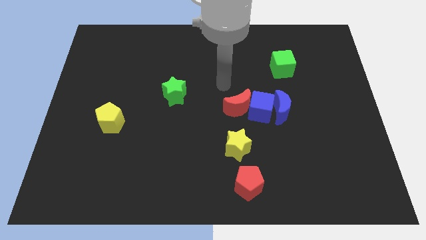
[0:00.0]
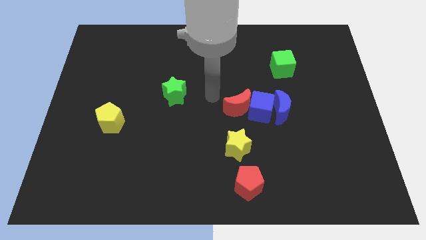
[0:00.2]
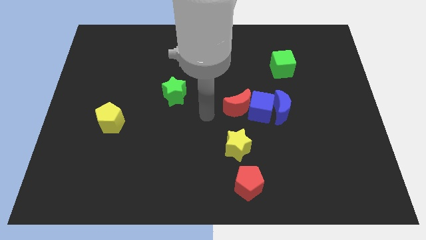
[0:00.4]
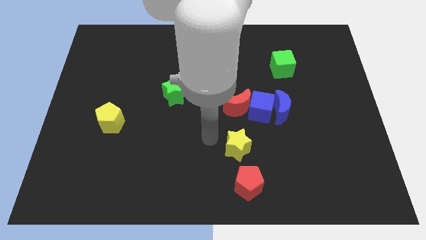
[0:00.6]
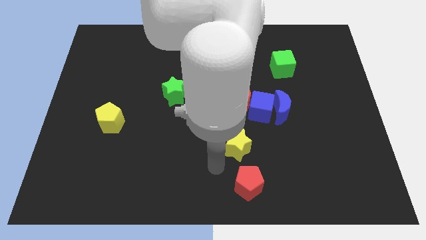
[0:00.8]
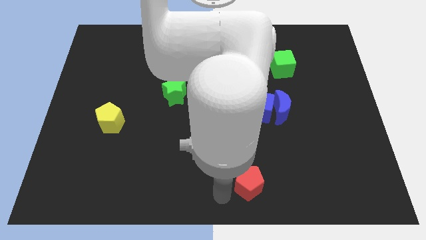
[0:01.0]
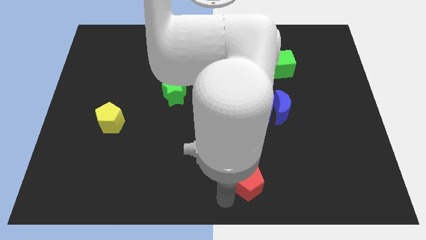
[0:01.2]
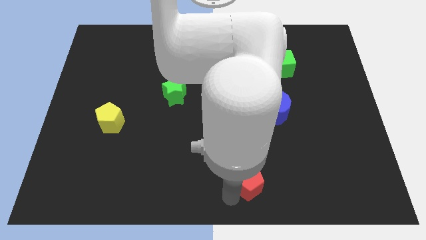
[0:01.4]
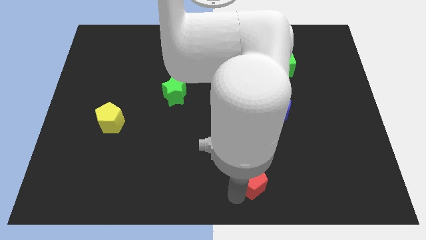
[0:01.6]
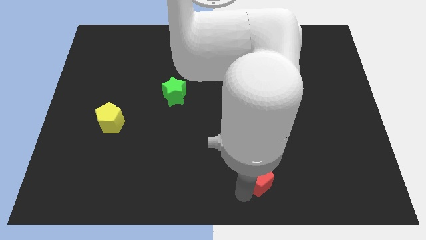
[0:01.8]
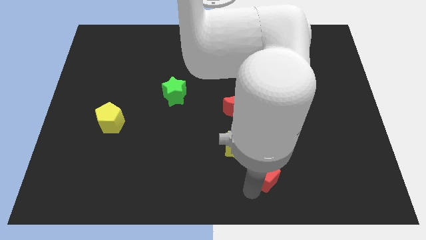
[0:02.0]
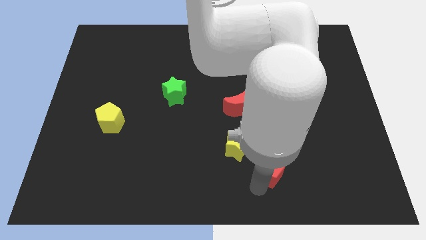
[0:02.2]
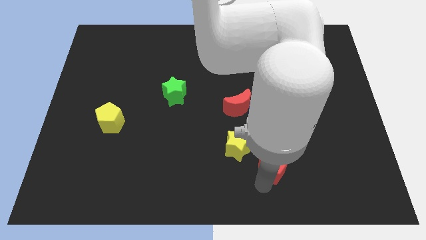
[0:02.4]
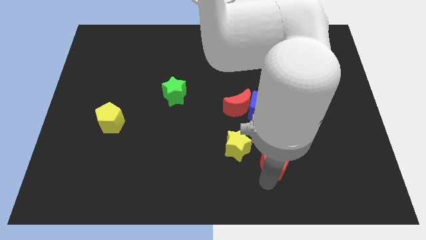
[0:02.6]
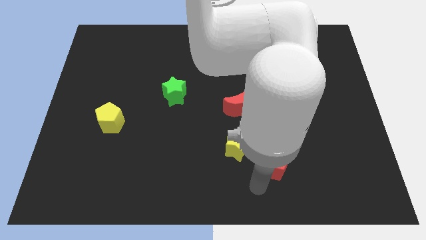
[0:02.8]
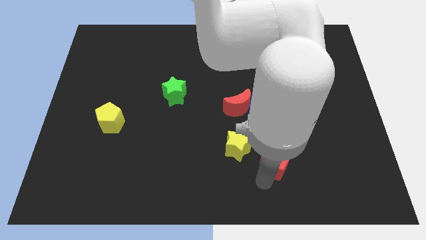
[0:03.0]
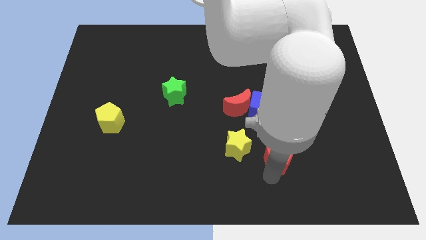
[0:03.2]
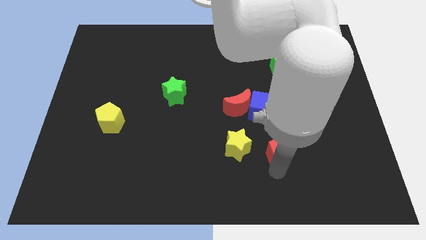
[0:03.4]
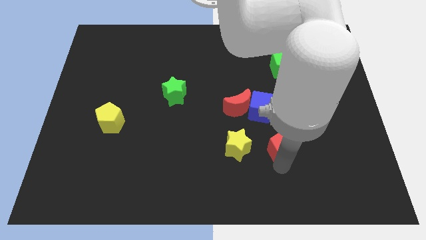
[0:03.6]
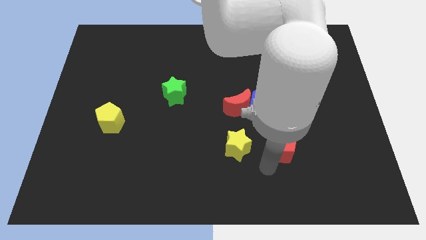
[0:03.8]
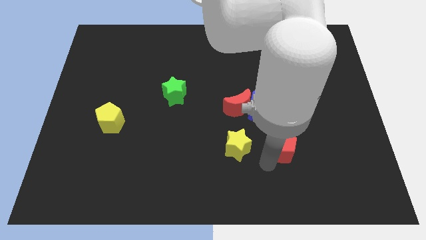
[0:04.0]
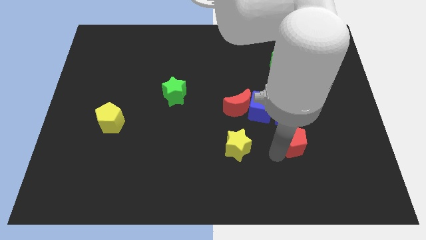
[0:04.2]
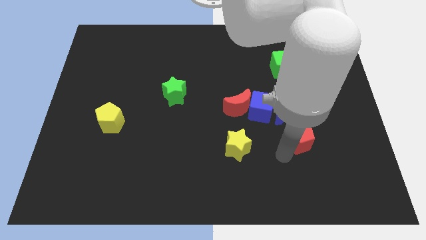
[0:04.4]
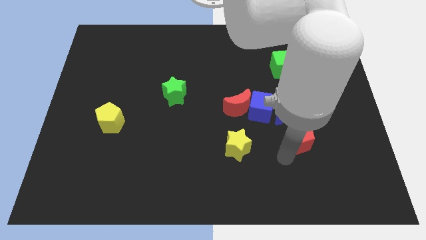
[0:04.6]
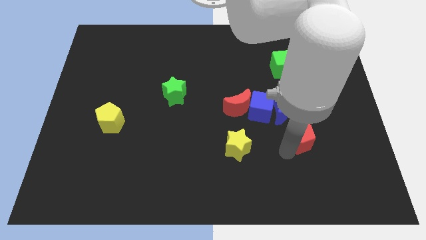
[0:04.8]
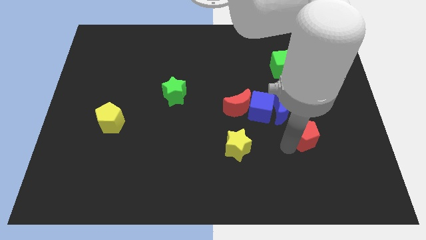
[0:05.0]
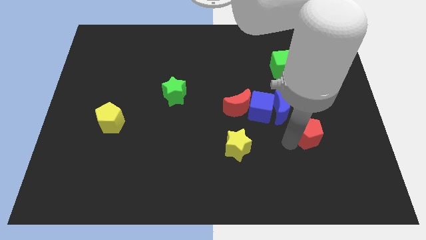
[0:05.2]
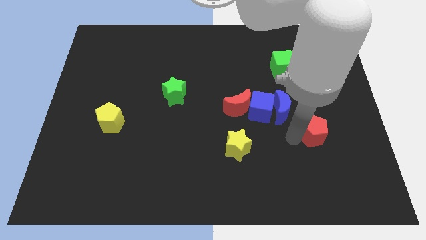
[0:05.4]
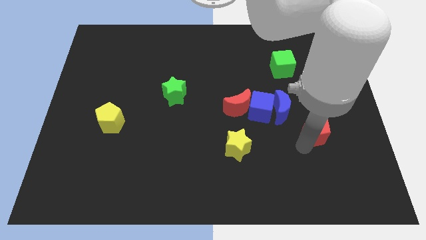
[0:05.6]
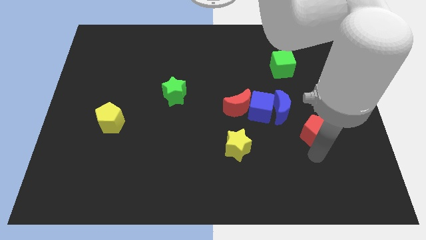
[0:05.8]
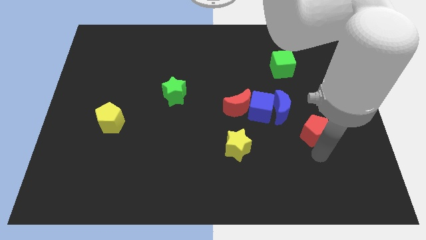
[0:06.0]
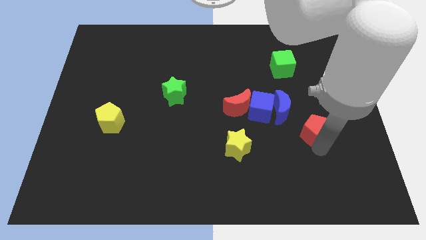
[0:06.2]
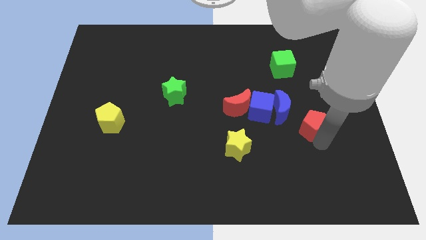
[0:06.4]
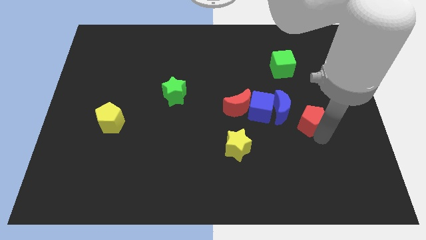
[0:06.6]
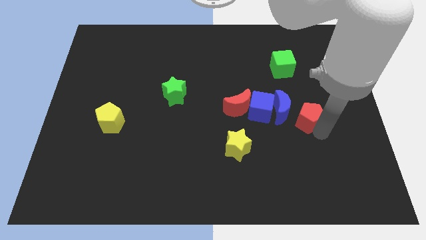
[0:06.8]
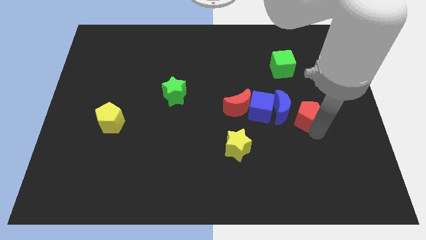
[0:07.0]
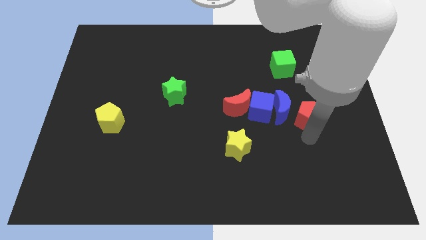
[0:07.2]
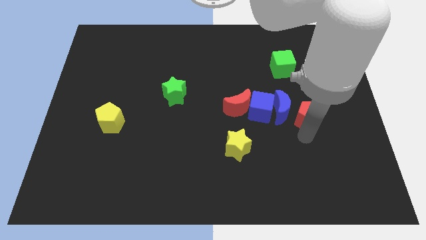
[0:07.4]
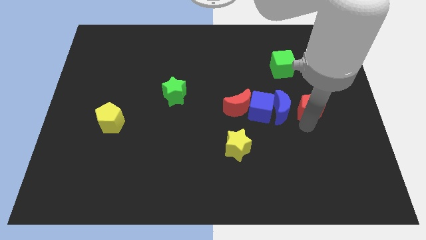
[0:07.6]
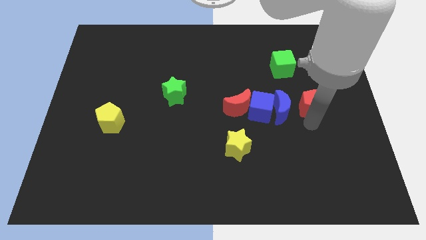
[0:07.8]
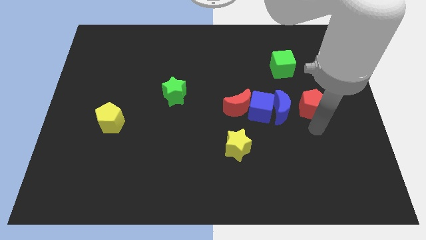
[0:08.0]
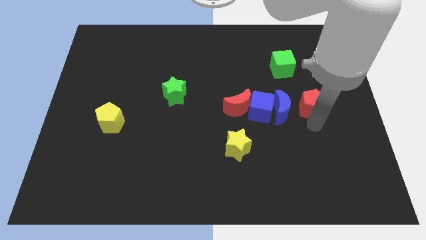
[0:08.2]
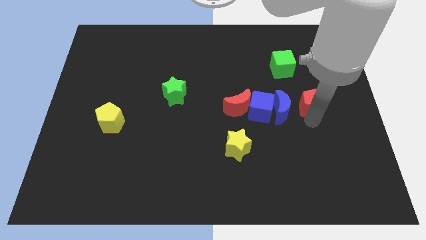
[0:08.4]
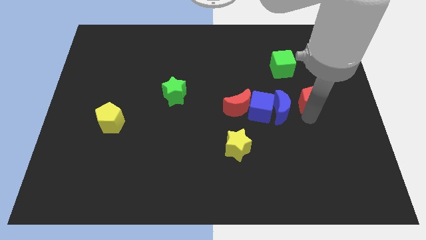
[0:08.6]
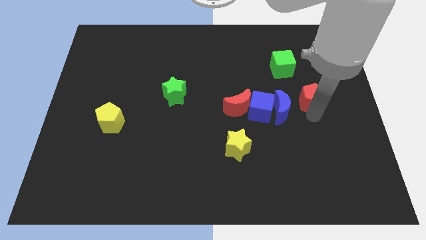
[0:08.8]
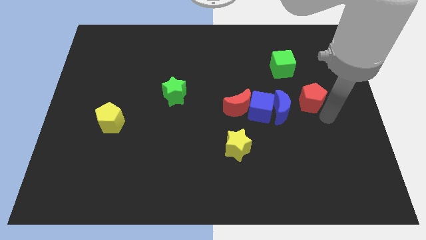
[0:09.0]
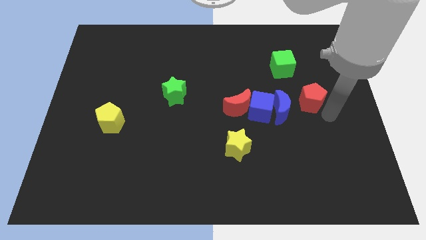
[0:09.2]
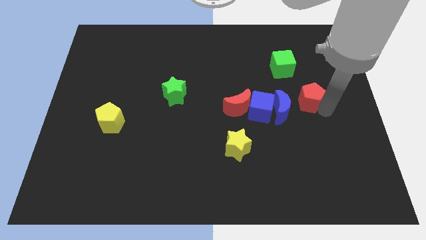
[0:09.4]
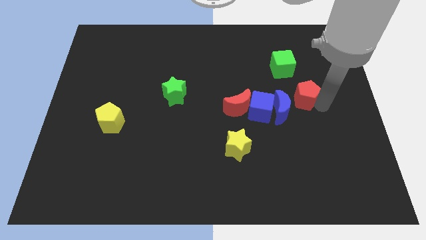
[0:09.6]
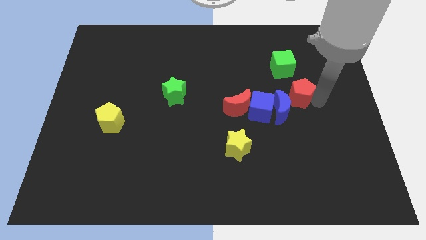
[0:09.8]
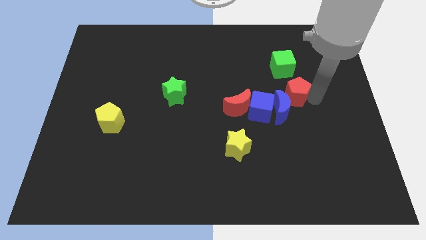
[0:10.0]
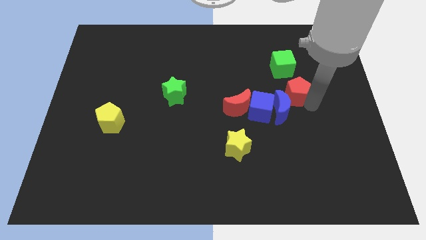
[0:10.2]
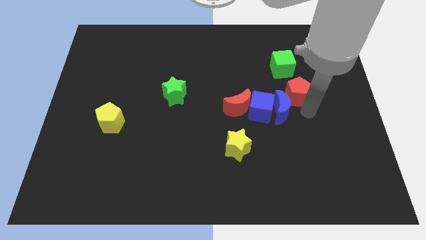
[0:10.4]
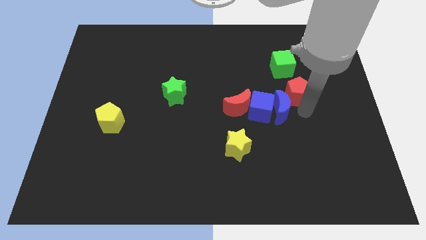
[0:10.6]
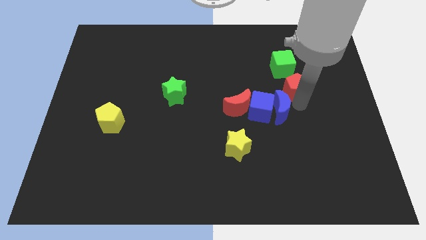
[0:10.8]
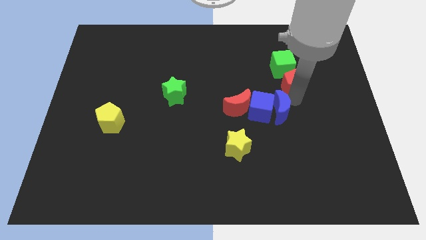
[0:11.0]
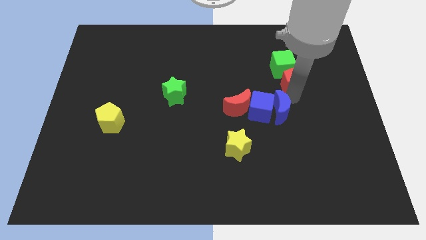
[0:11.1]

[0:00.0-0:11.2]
push the red pentagon to the green cube

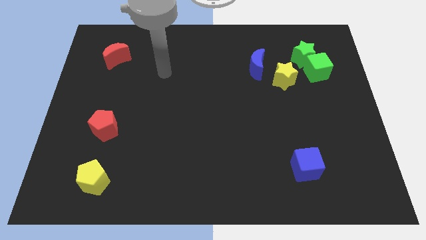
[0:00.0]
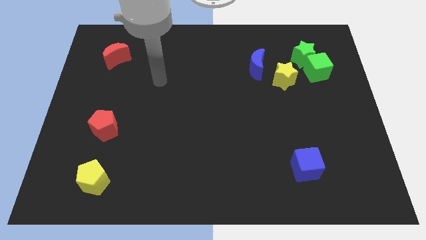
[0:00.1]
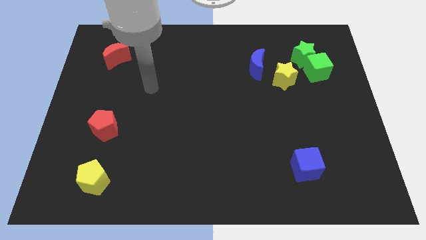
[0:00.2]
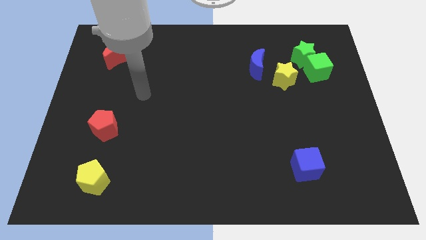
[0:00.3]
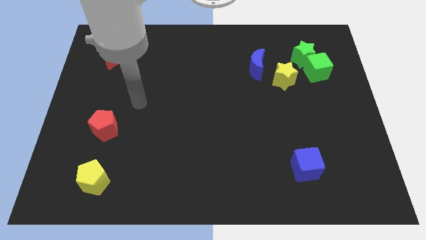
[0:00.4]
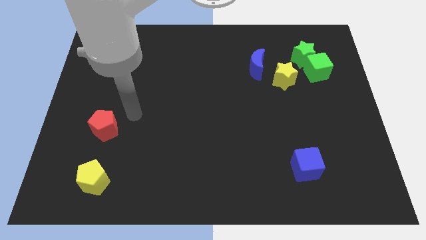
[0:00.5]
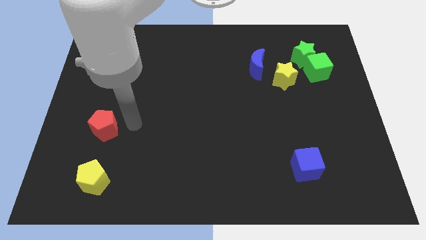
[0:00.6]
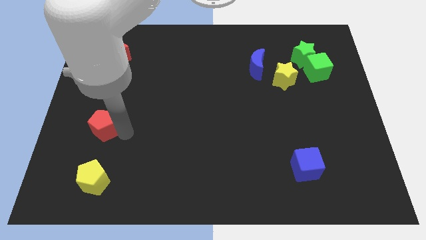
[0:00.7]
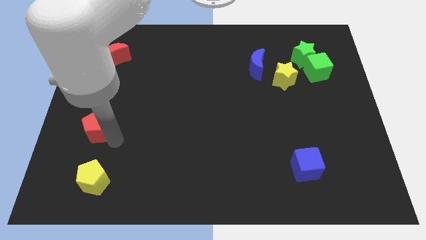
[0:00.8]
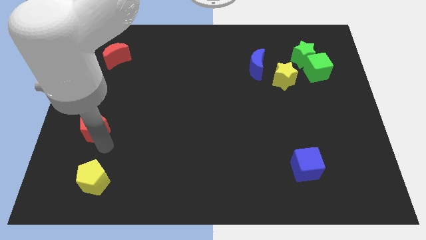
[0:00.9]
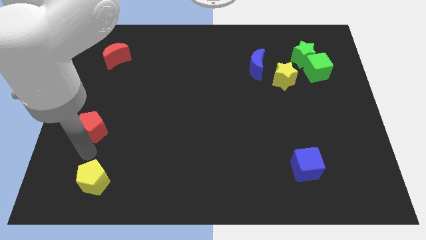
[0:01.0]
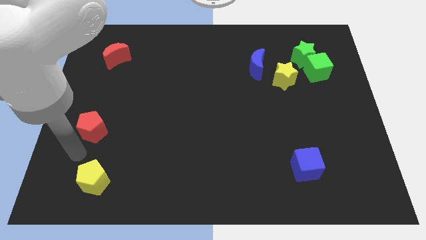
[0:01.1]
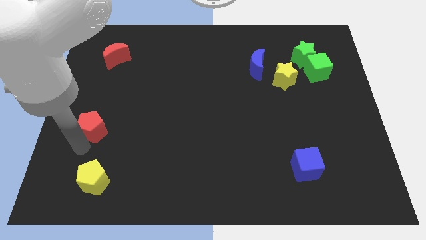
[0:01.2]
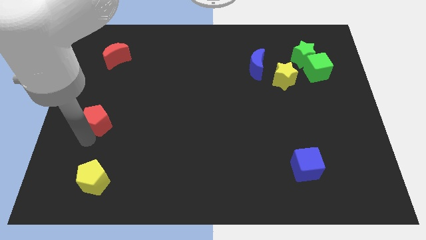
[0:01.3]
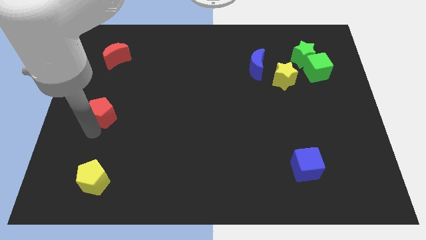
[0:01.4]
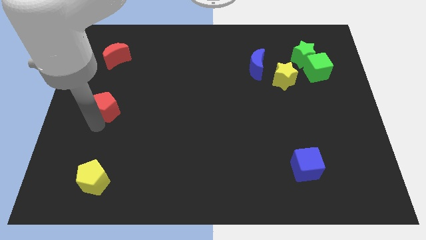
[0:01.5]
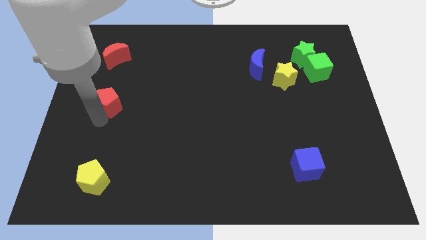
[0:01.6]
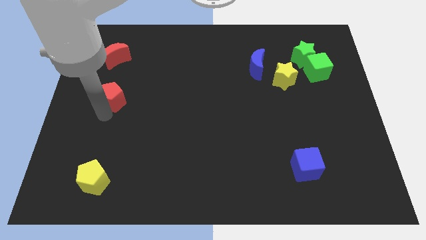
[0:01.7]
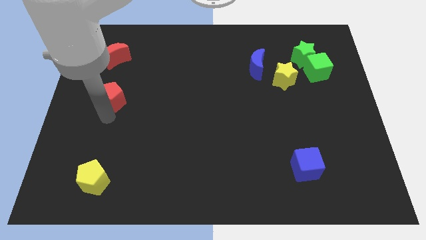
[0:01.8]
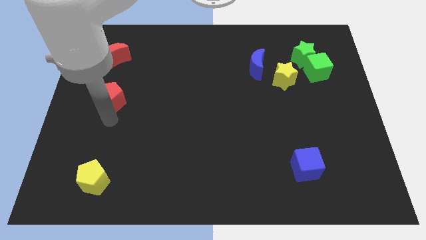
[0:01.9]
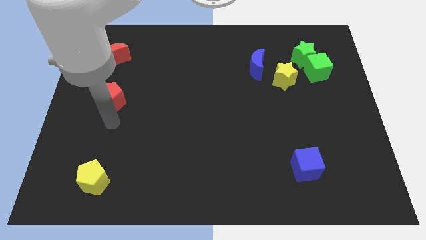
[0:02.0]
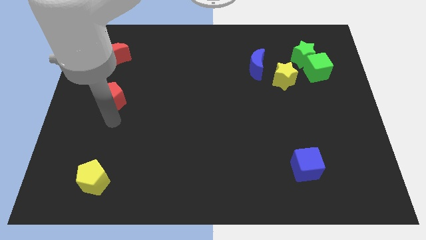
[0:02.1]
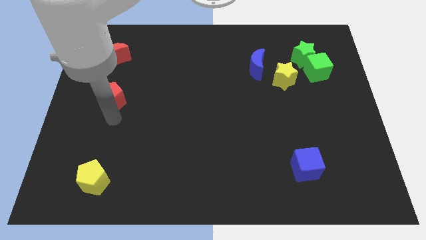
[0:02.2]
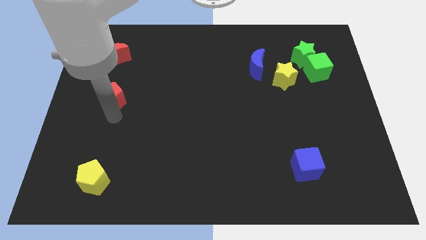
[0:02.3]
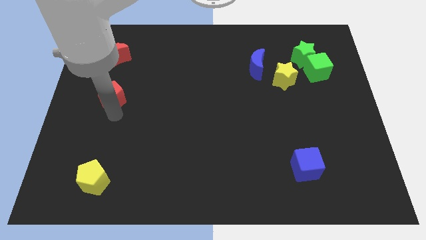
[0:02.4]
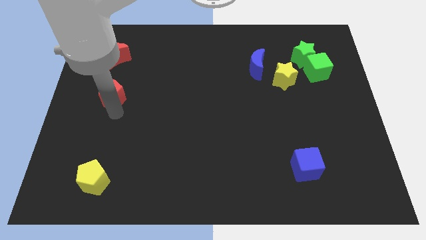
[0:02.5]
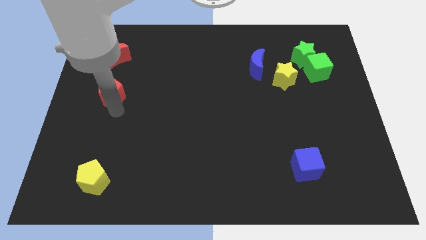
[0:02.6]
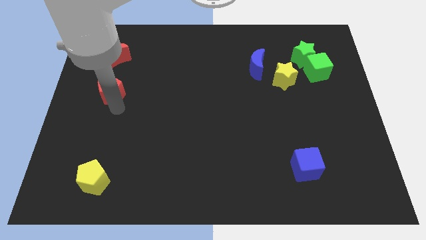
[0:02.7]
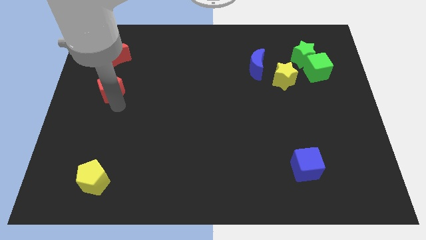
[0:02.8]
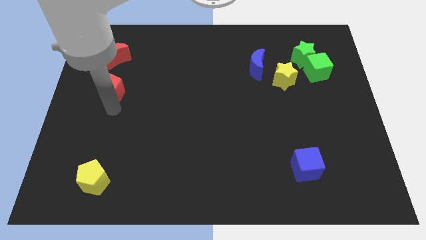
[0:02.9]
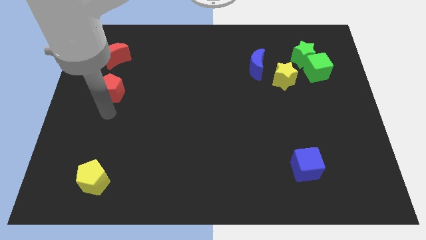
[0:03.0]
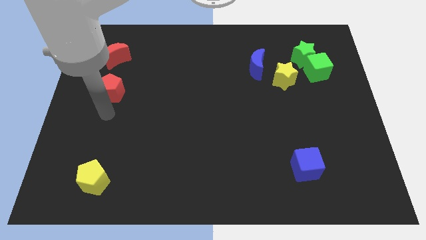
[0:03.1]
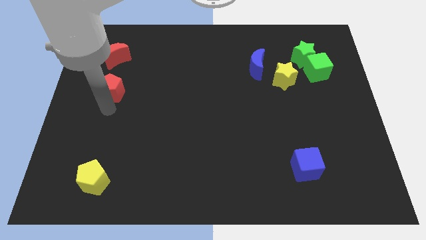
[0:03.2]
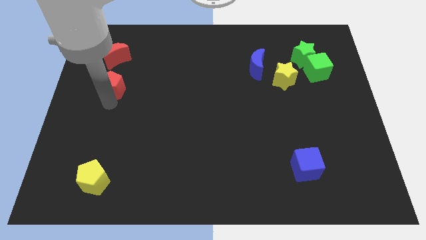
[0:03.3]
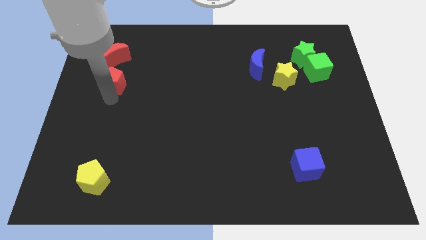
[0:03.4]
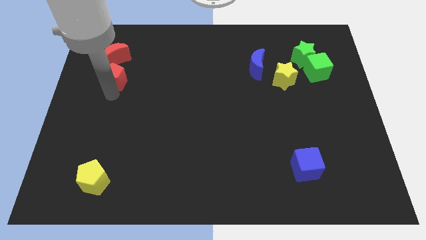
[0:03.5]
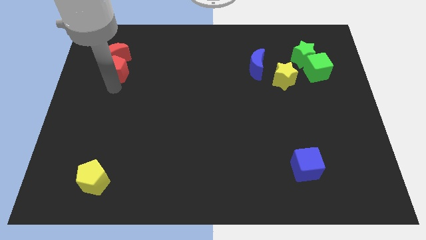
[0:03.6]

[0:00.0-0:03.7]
put the red pentagon close to the red moon
